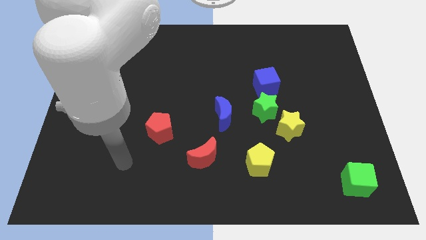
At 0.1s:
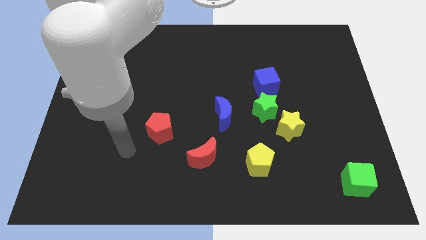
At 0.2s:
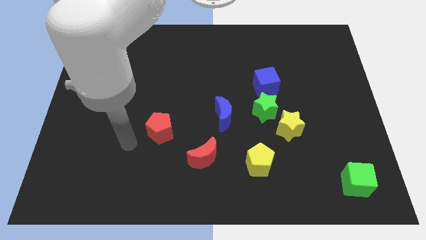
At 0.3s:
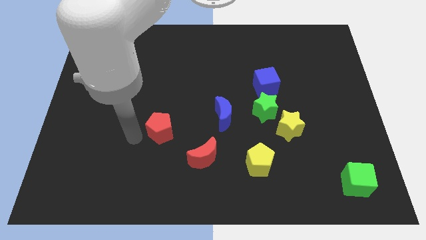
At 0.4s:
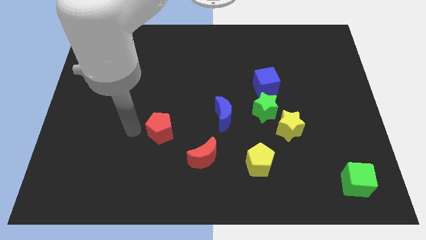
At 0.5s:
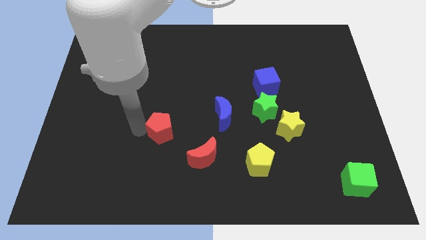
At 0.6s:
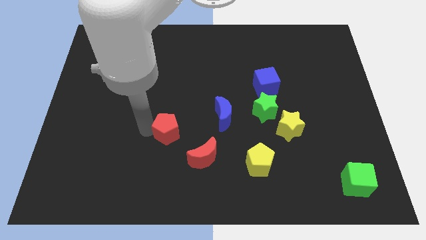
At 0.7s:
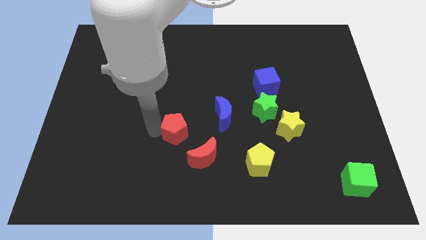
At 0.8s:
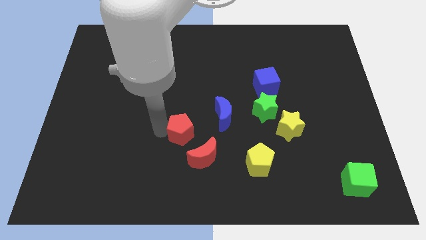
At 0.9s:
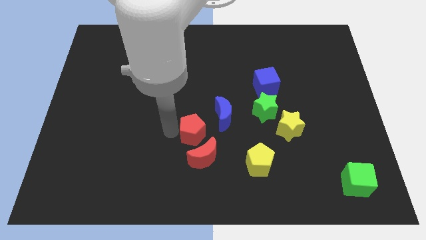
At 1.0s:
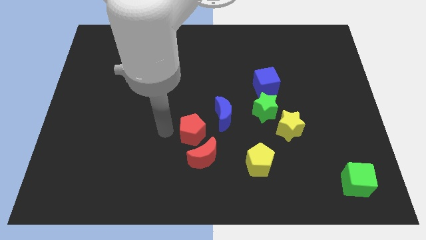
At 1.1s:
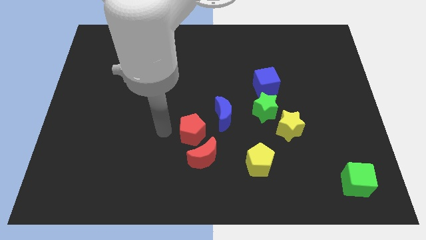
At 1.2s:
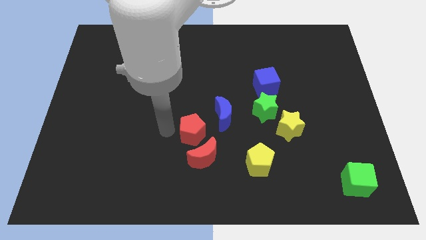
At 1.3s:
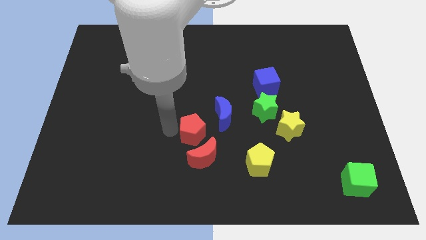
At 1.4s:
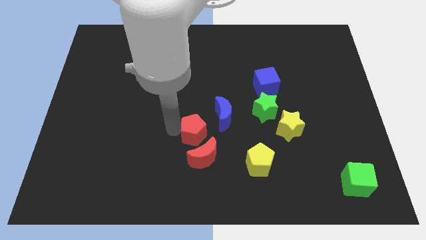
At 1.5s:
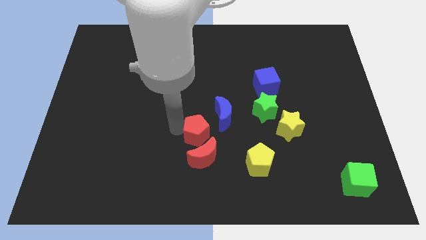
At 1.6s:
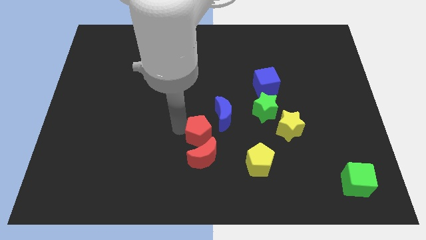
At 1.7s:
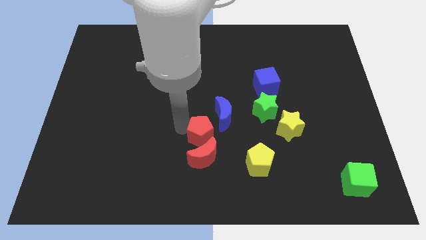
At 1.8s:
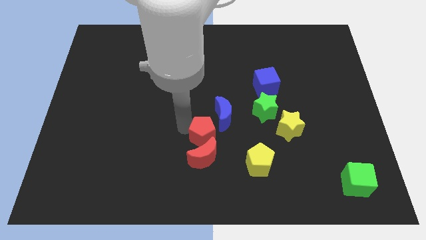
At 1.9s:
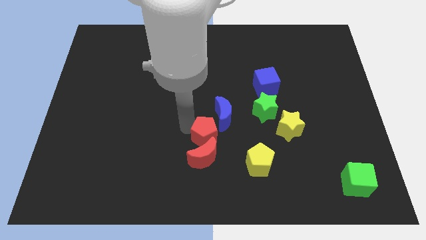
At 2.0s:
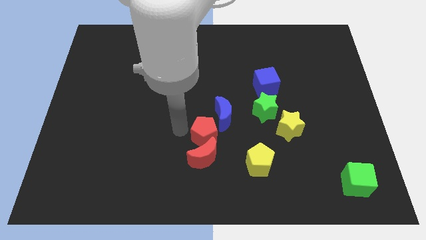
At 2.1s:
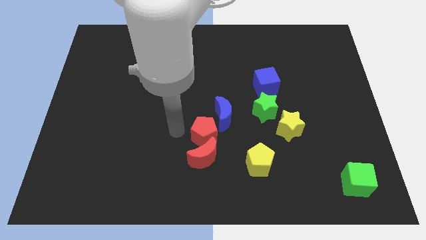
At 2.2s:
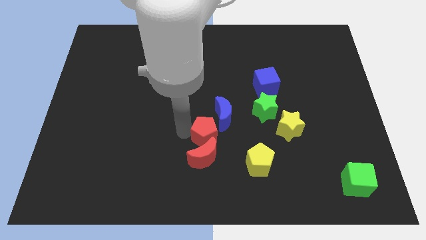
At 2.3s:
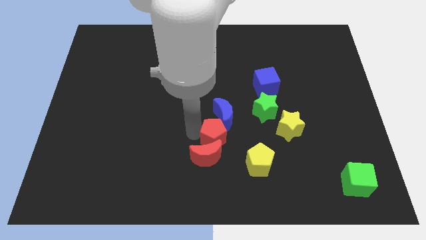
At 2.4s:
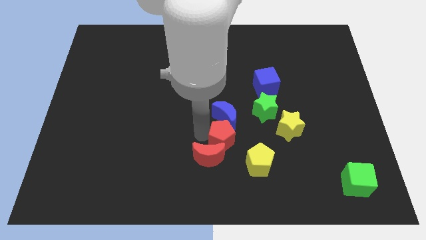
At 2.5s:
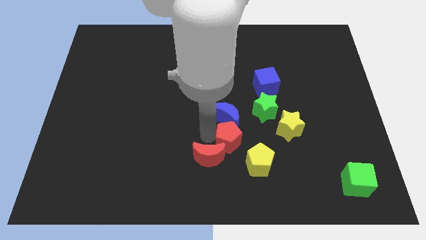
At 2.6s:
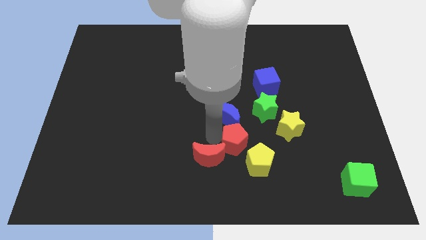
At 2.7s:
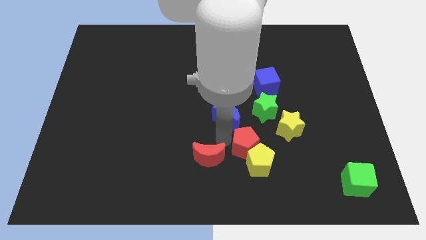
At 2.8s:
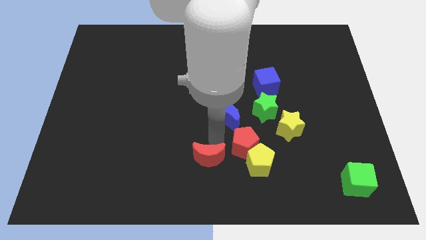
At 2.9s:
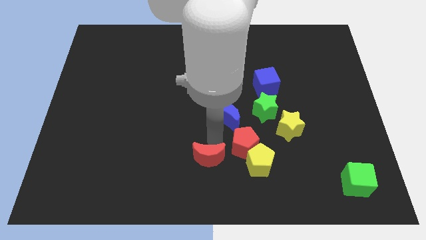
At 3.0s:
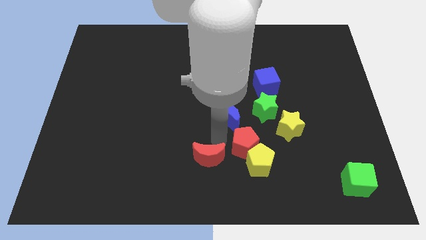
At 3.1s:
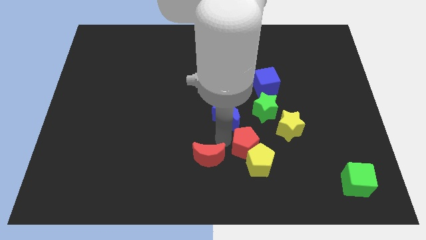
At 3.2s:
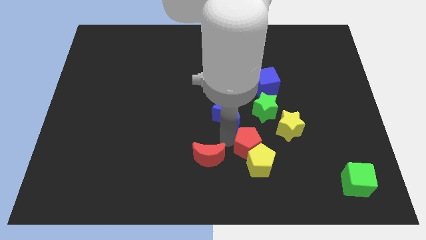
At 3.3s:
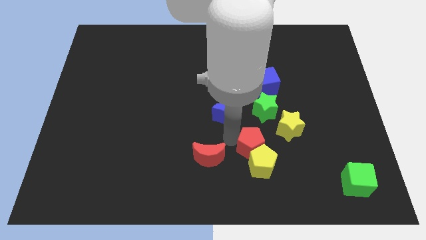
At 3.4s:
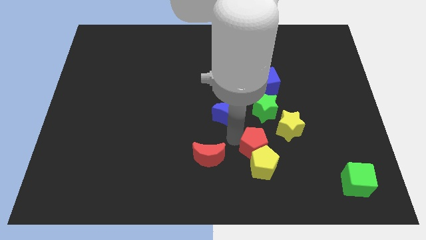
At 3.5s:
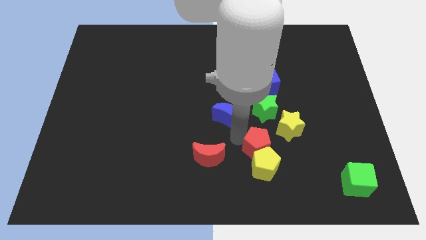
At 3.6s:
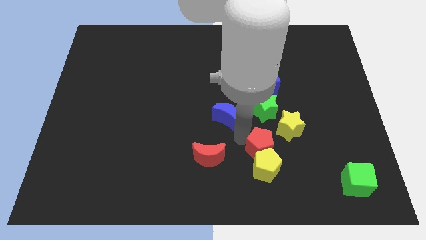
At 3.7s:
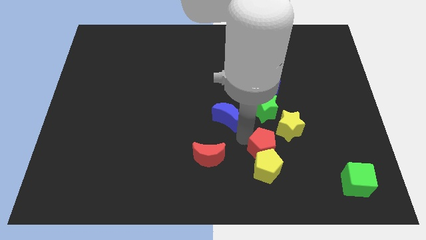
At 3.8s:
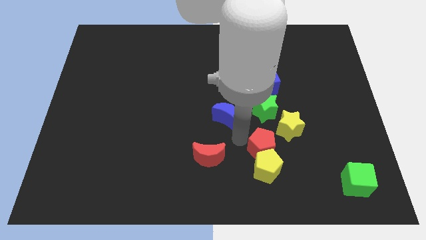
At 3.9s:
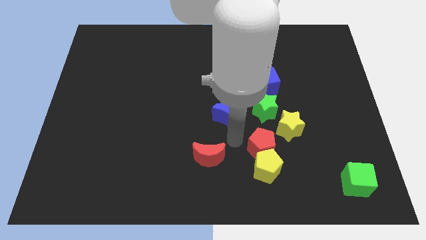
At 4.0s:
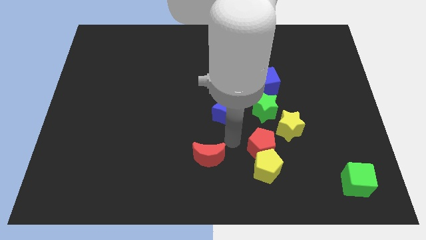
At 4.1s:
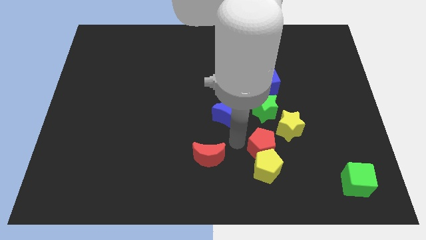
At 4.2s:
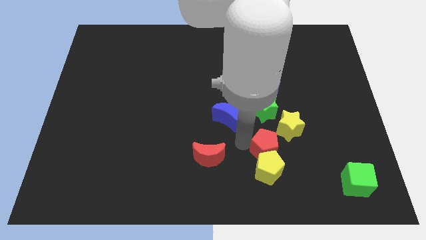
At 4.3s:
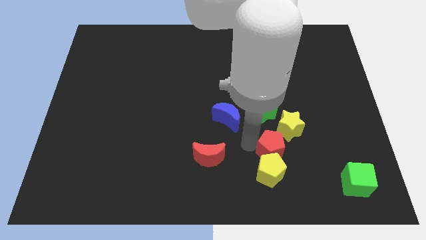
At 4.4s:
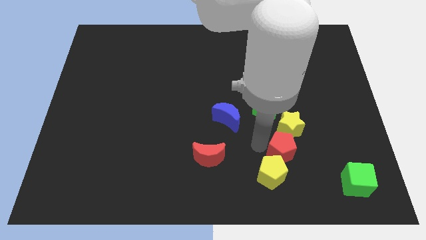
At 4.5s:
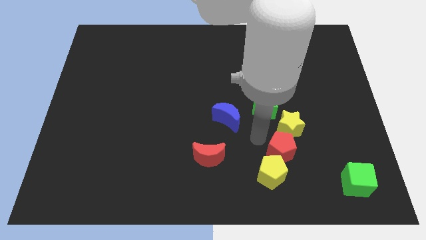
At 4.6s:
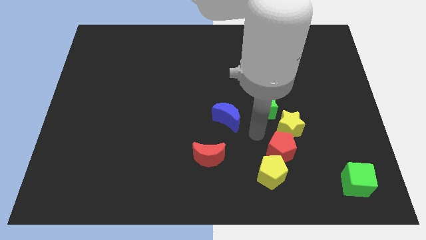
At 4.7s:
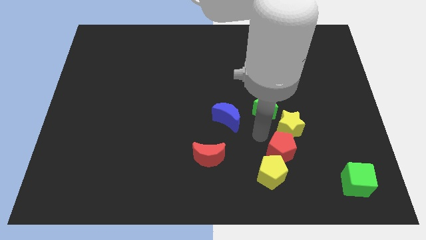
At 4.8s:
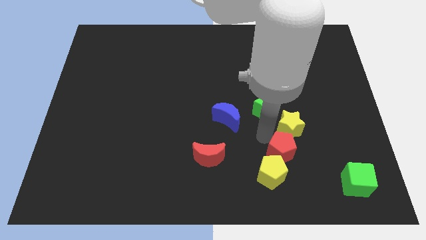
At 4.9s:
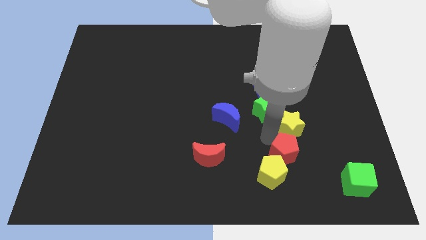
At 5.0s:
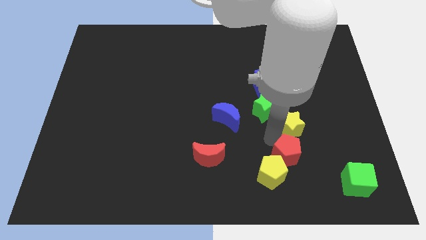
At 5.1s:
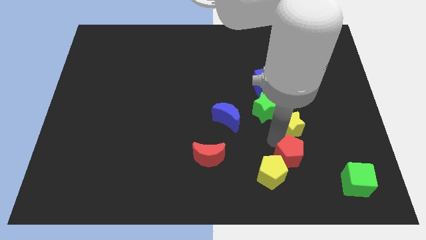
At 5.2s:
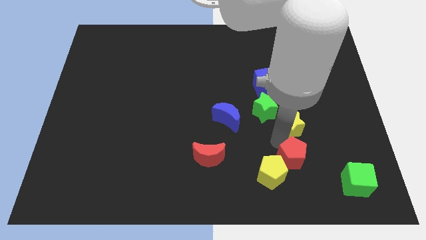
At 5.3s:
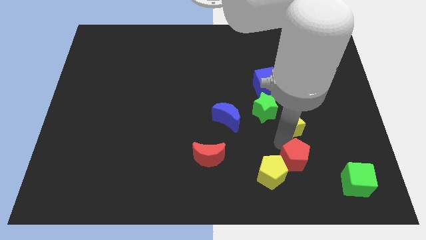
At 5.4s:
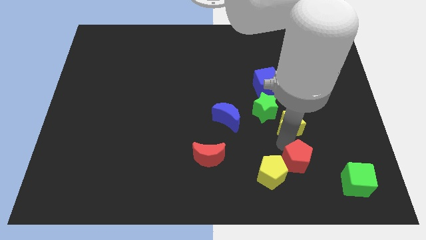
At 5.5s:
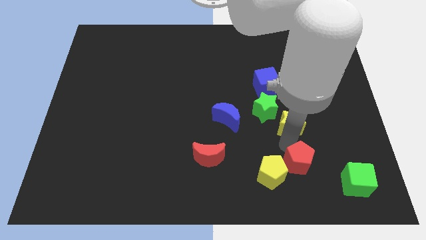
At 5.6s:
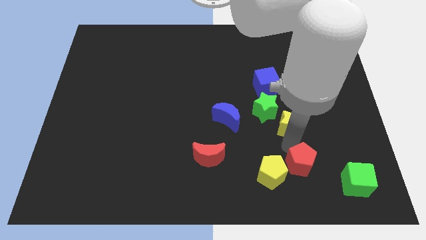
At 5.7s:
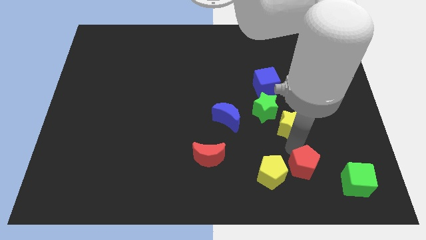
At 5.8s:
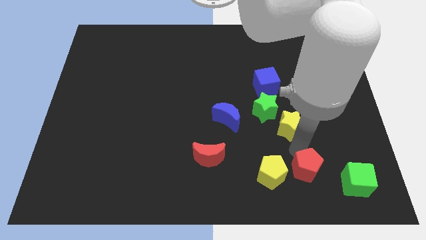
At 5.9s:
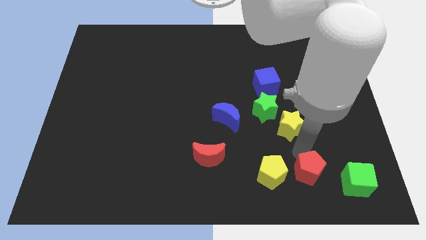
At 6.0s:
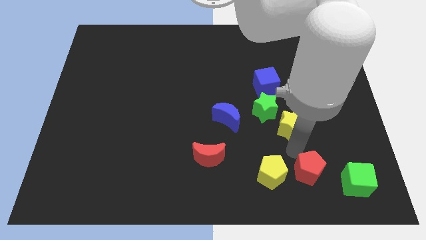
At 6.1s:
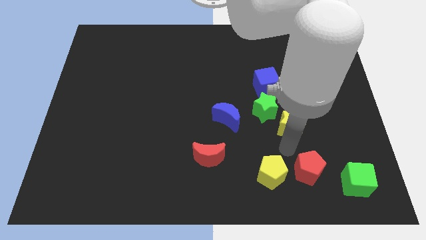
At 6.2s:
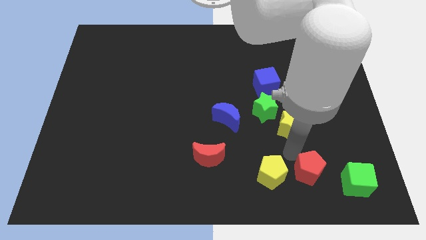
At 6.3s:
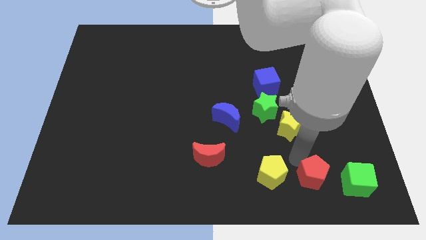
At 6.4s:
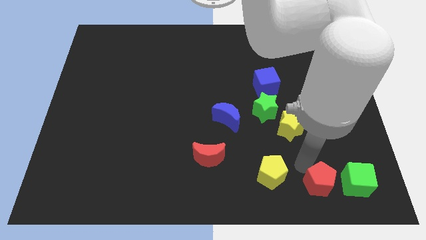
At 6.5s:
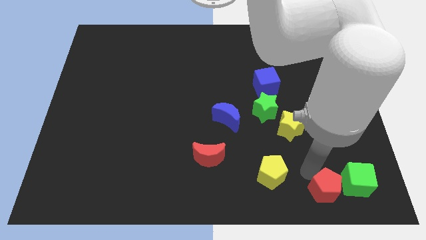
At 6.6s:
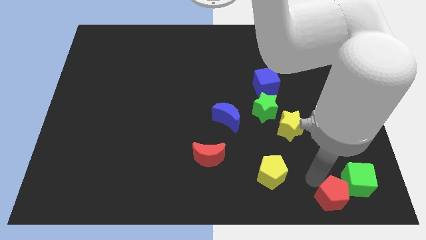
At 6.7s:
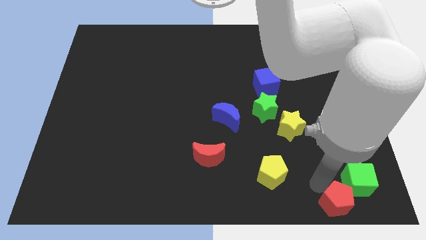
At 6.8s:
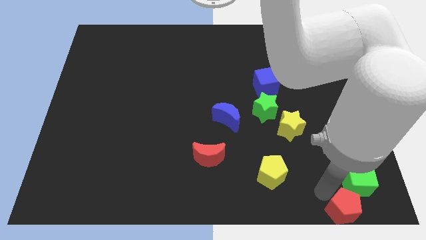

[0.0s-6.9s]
move the red pentagon to the bottom right
